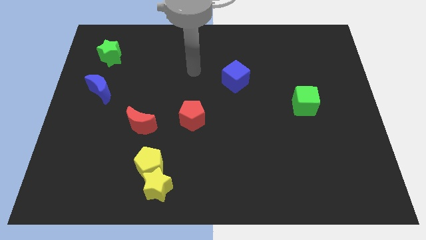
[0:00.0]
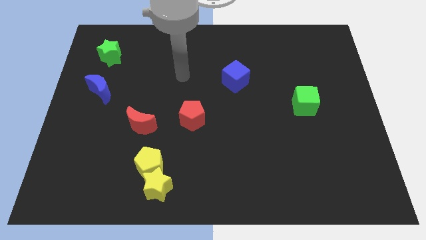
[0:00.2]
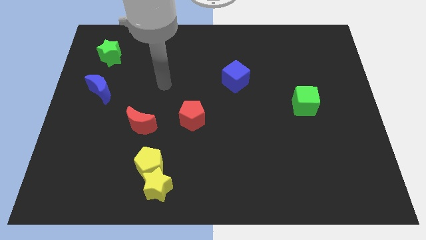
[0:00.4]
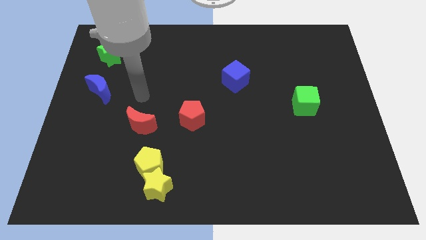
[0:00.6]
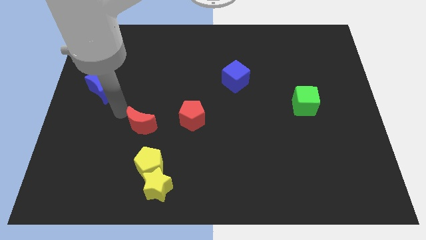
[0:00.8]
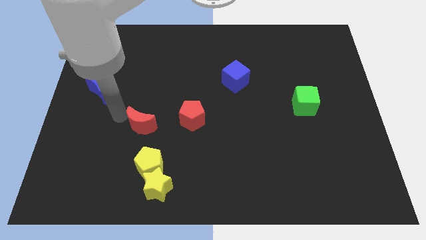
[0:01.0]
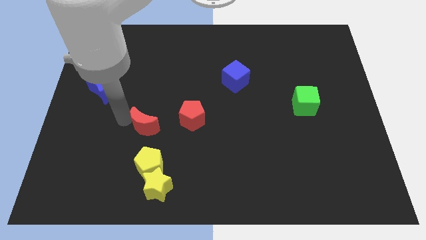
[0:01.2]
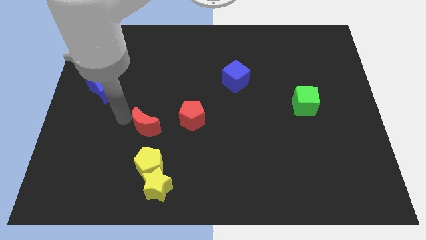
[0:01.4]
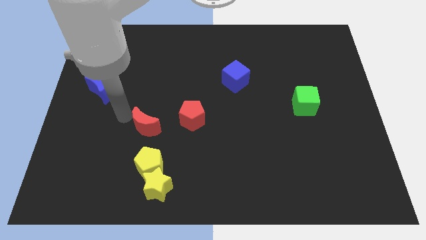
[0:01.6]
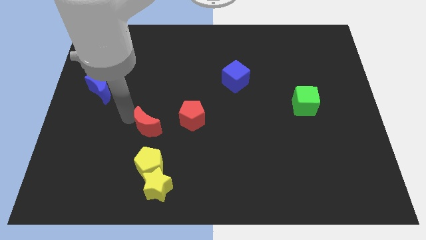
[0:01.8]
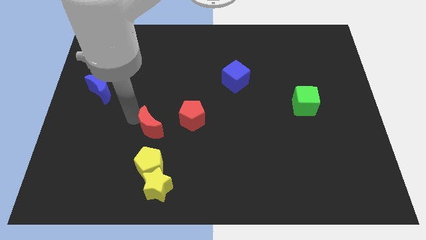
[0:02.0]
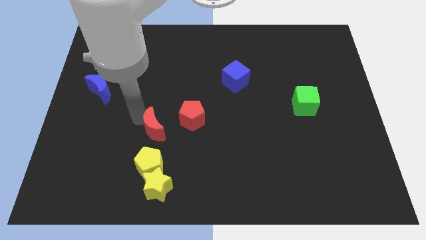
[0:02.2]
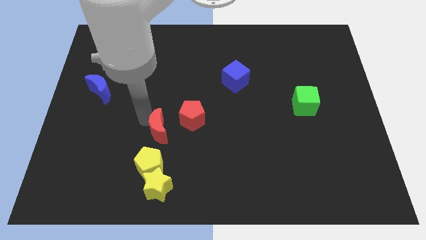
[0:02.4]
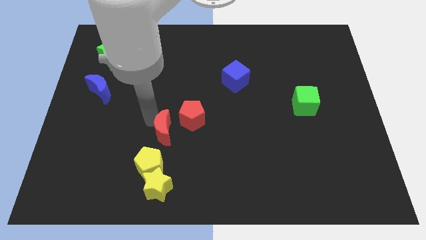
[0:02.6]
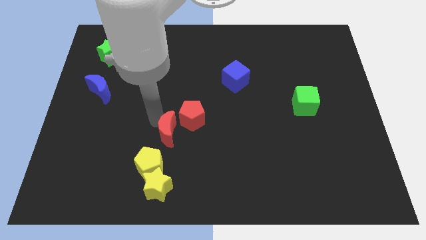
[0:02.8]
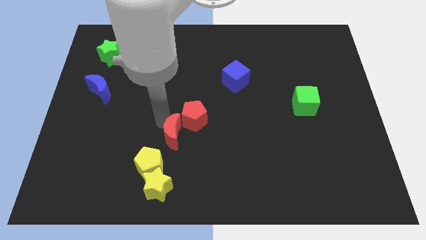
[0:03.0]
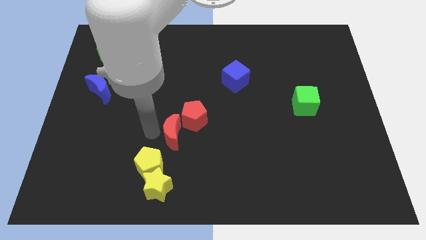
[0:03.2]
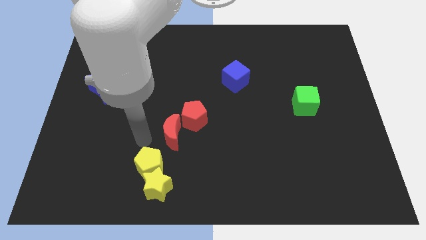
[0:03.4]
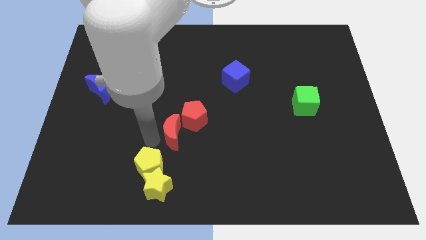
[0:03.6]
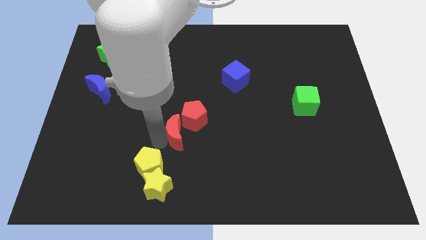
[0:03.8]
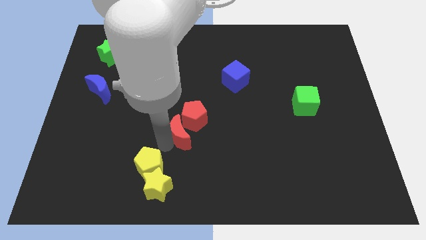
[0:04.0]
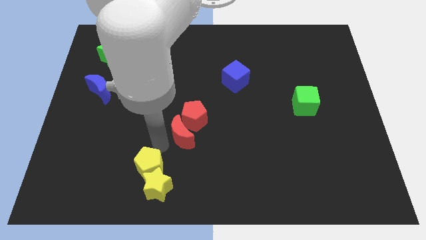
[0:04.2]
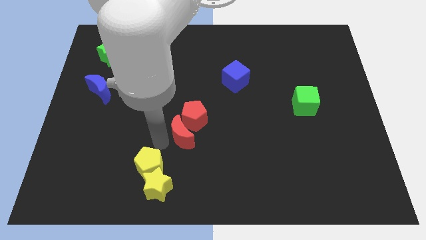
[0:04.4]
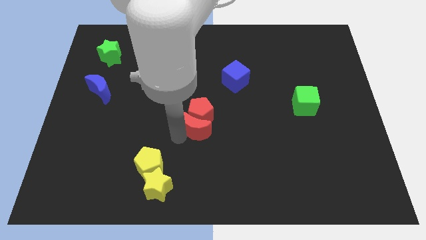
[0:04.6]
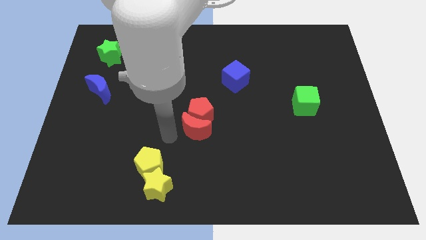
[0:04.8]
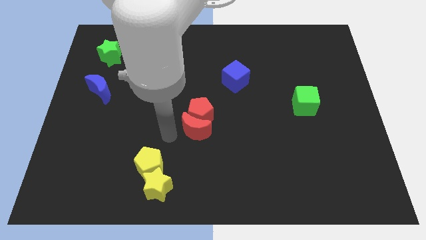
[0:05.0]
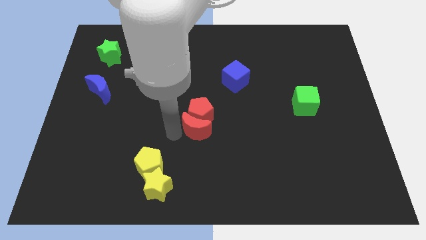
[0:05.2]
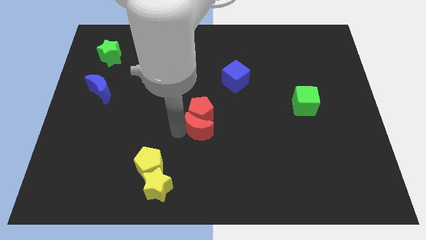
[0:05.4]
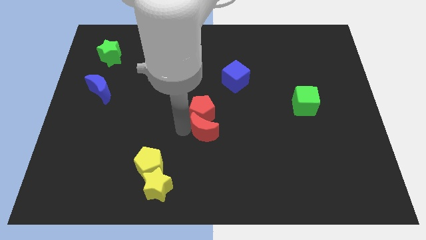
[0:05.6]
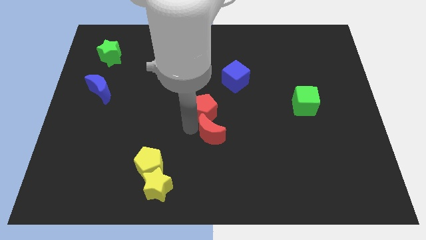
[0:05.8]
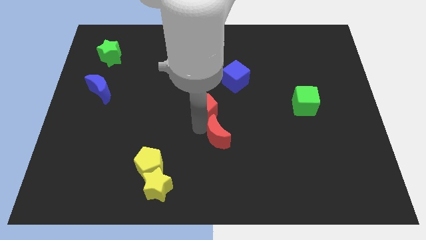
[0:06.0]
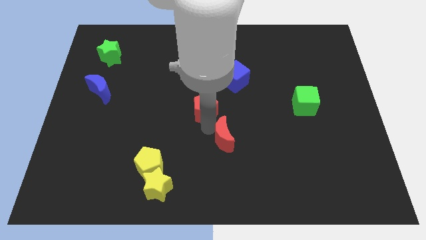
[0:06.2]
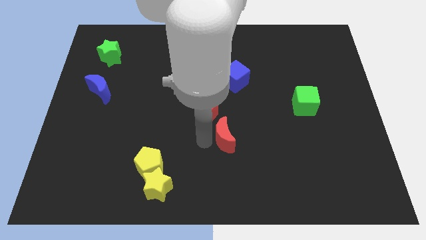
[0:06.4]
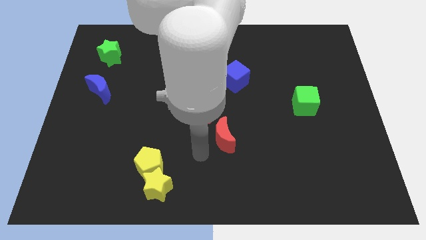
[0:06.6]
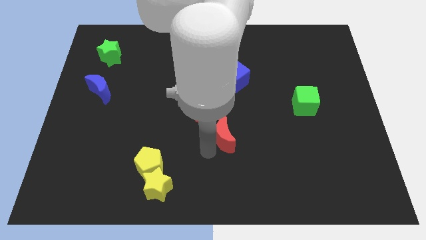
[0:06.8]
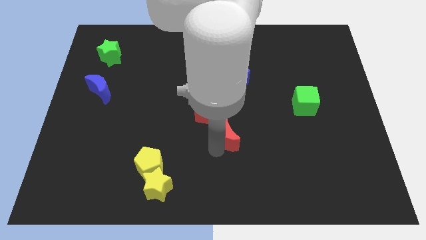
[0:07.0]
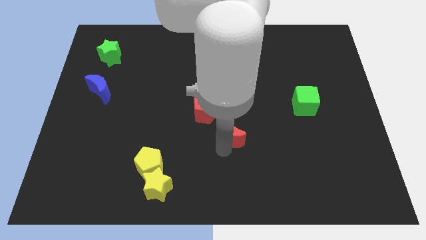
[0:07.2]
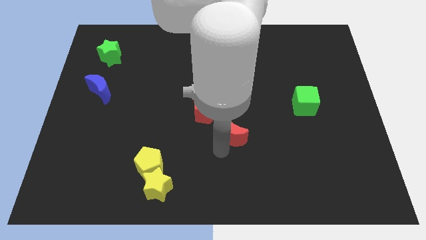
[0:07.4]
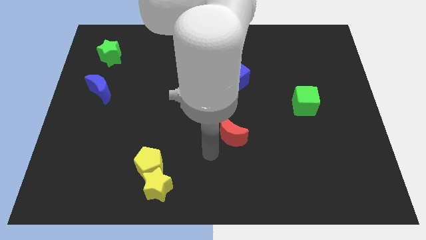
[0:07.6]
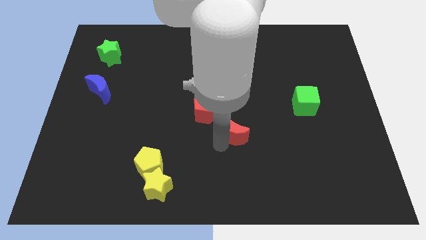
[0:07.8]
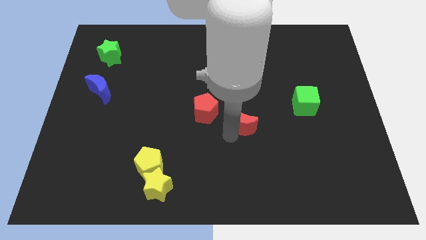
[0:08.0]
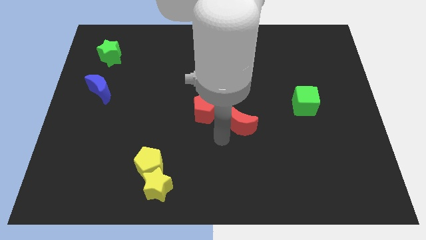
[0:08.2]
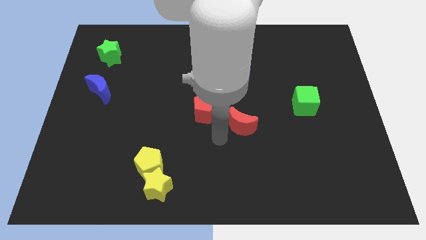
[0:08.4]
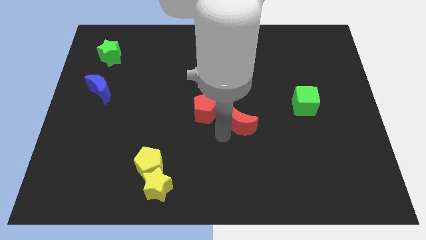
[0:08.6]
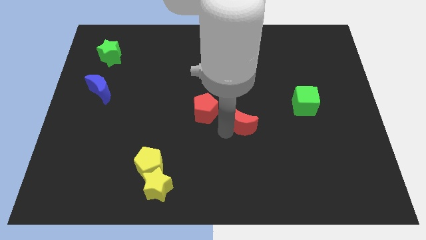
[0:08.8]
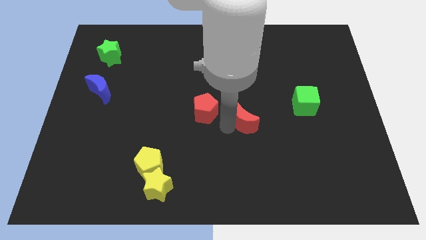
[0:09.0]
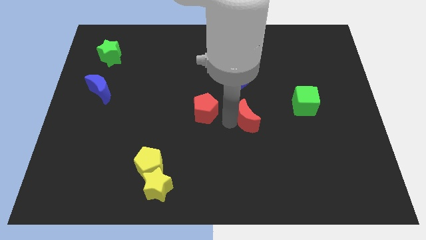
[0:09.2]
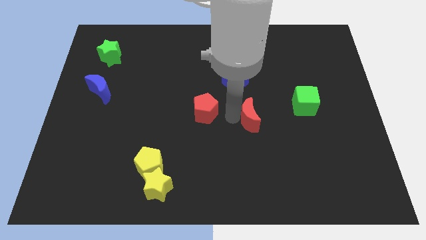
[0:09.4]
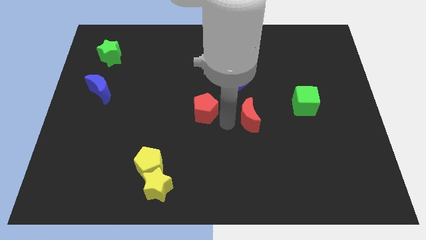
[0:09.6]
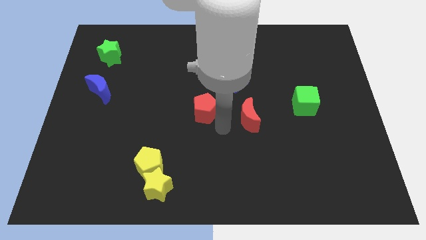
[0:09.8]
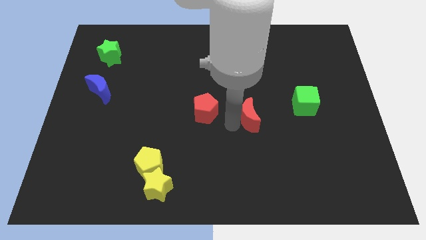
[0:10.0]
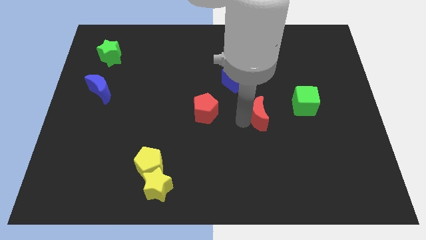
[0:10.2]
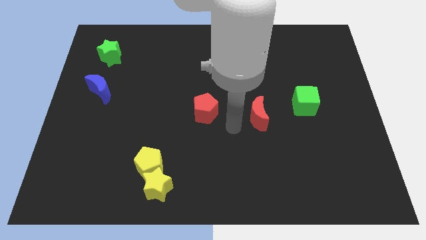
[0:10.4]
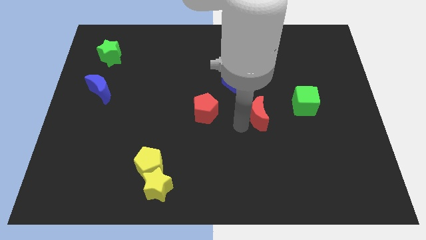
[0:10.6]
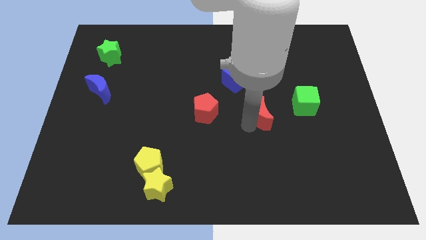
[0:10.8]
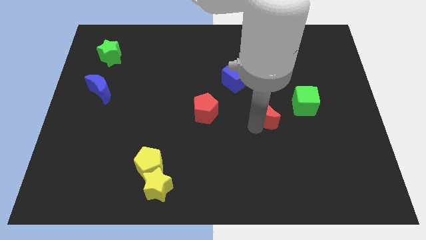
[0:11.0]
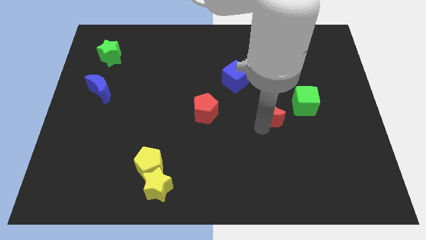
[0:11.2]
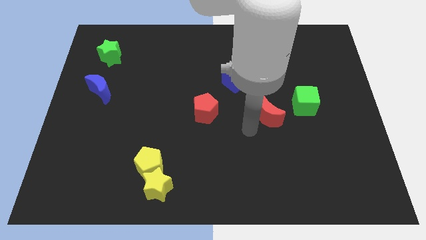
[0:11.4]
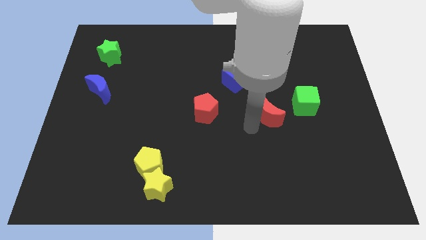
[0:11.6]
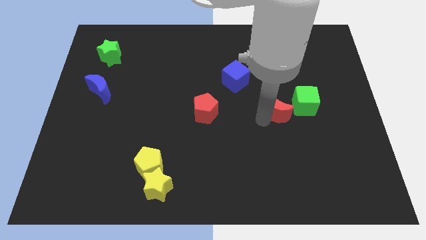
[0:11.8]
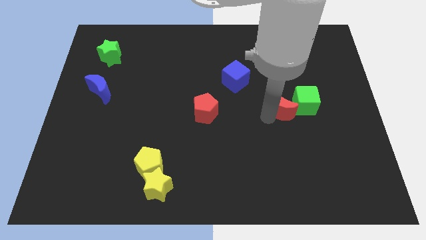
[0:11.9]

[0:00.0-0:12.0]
move the red moon close to the green cube

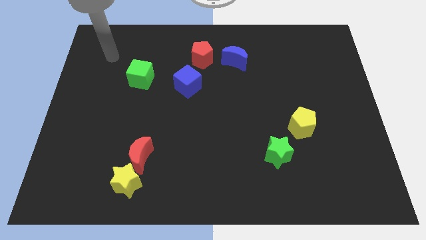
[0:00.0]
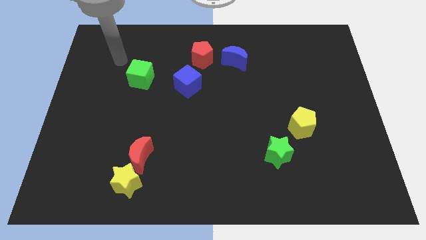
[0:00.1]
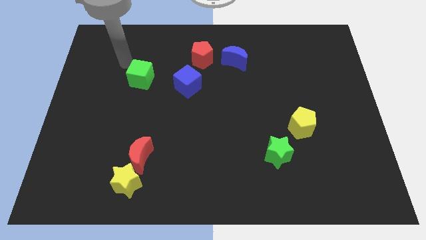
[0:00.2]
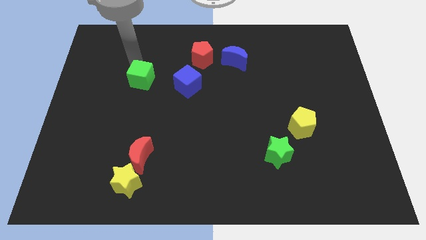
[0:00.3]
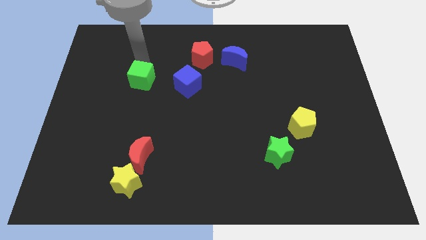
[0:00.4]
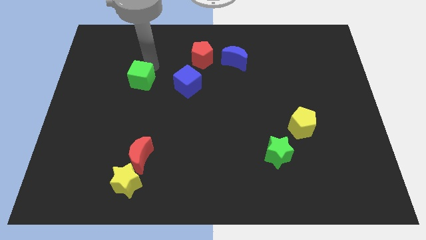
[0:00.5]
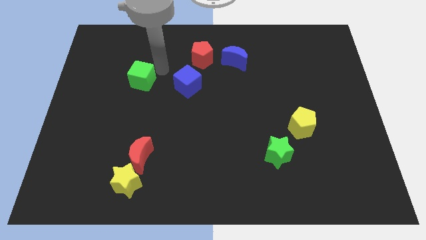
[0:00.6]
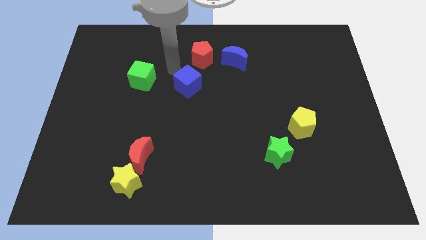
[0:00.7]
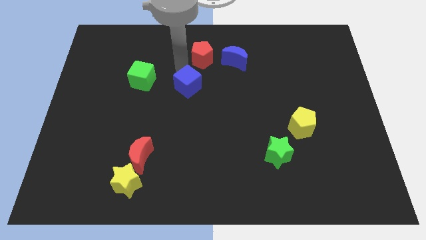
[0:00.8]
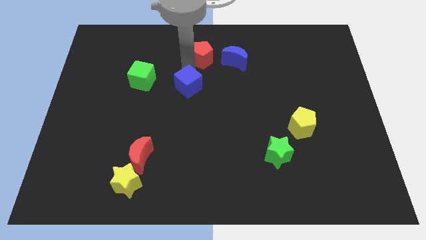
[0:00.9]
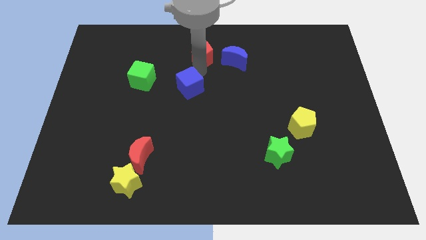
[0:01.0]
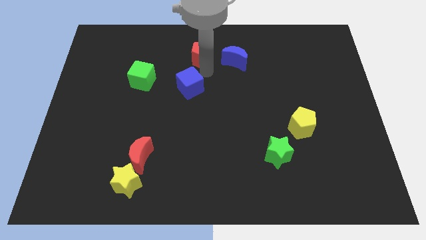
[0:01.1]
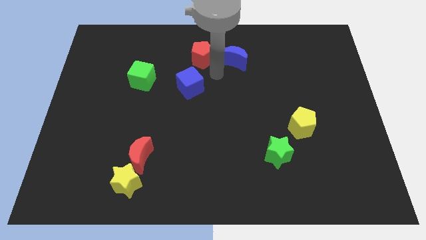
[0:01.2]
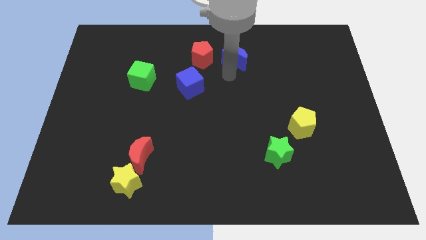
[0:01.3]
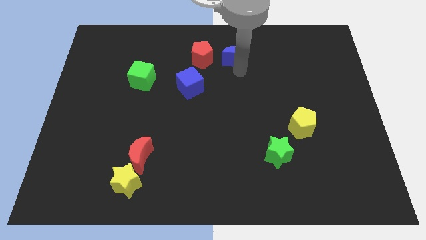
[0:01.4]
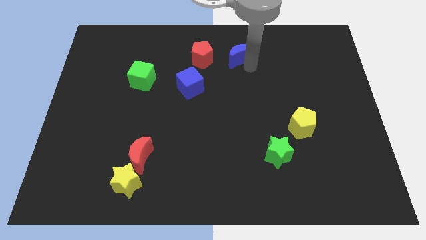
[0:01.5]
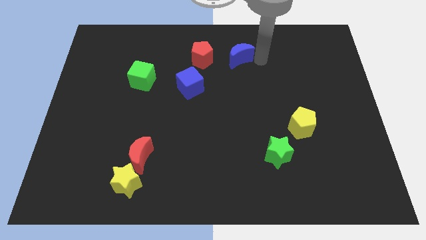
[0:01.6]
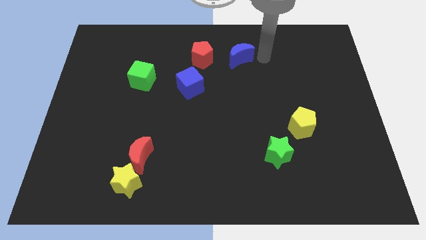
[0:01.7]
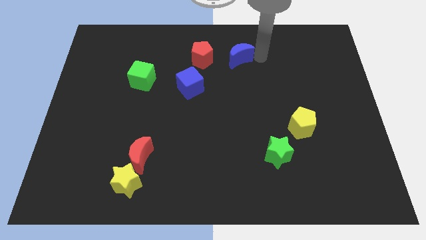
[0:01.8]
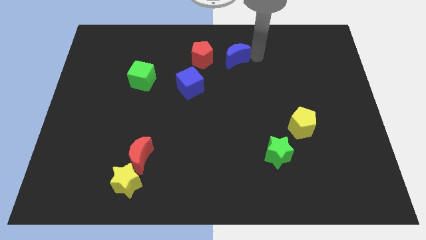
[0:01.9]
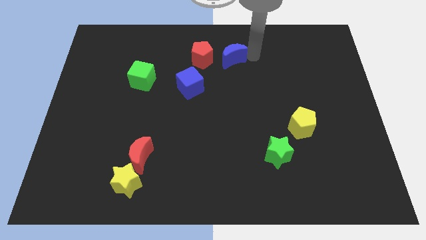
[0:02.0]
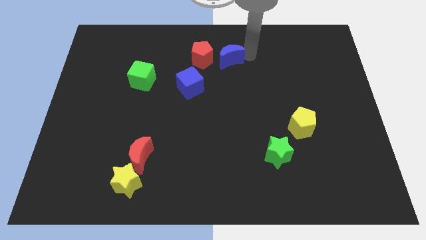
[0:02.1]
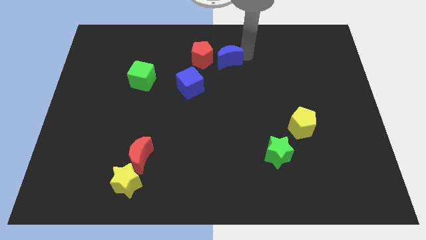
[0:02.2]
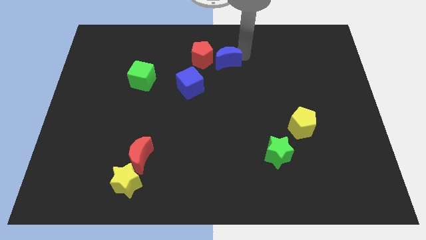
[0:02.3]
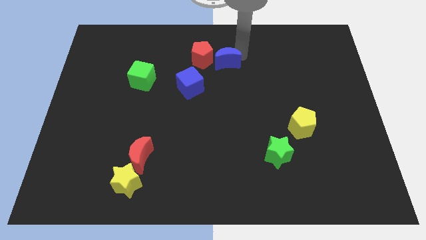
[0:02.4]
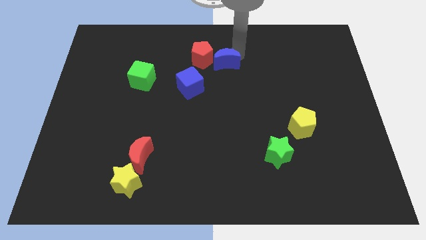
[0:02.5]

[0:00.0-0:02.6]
move the blue moon towards the red pentagon
